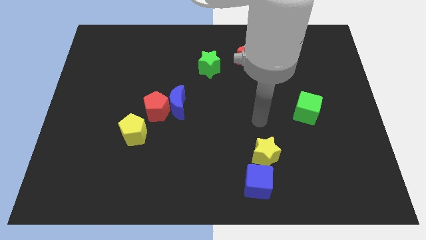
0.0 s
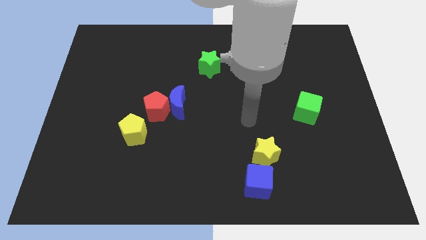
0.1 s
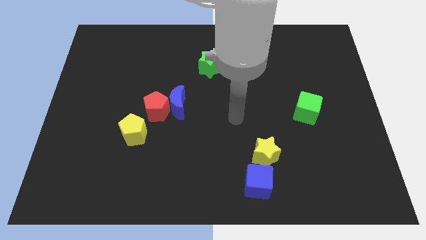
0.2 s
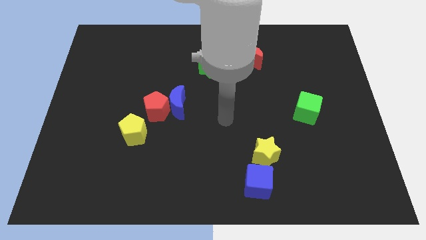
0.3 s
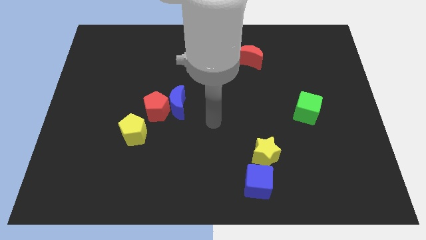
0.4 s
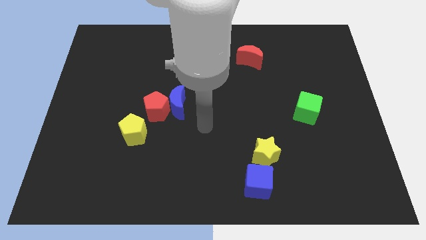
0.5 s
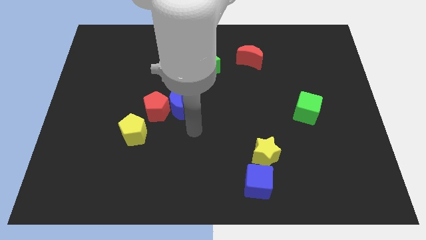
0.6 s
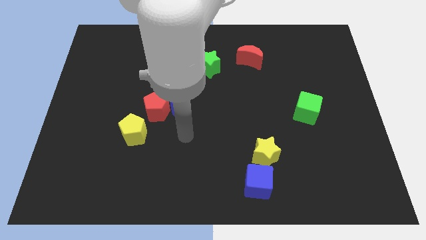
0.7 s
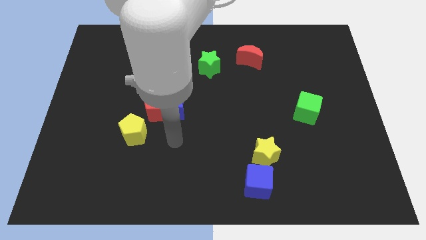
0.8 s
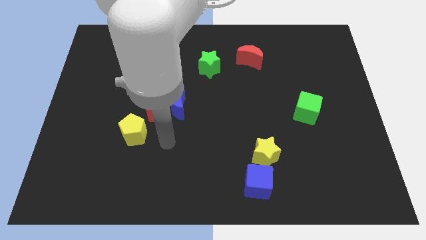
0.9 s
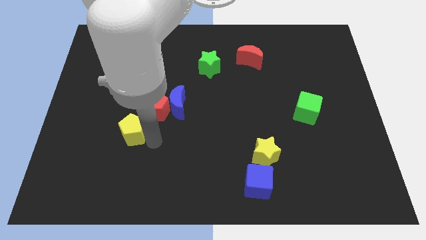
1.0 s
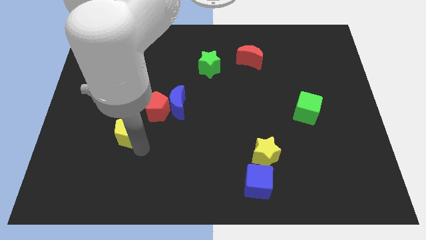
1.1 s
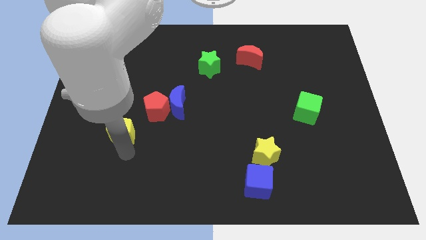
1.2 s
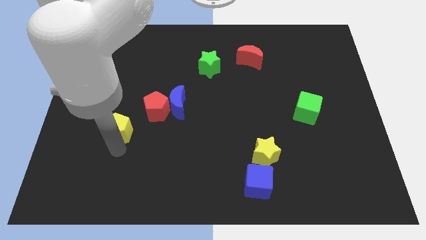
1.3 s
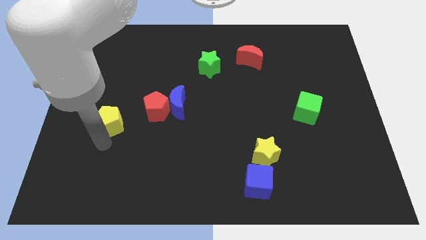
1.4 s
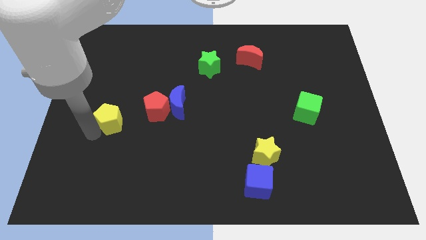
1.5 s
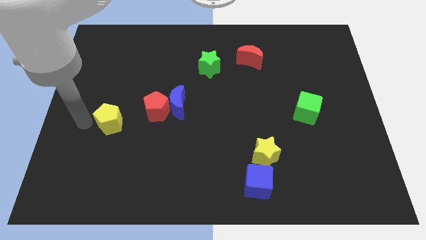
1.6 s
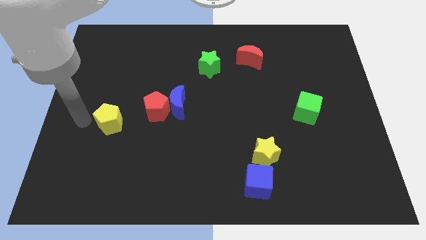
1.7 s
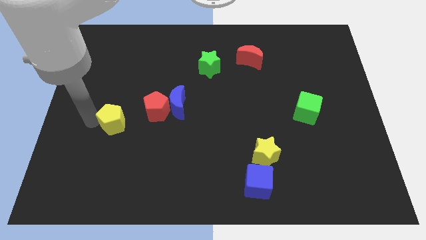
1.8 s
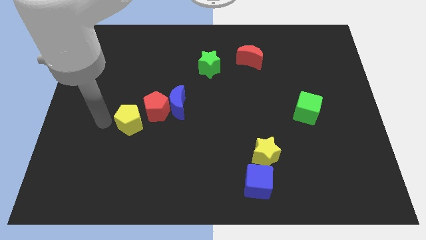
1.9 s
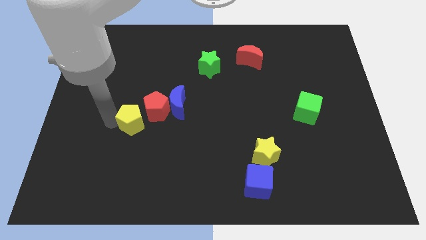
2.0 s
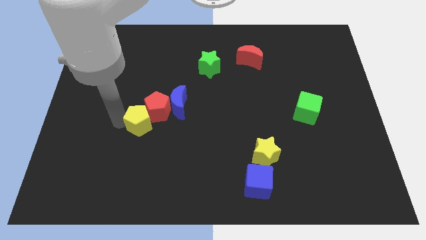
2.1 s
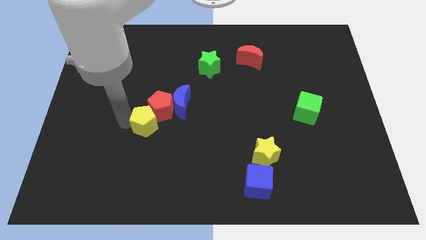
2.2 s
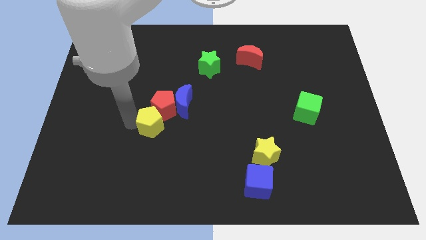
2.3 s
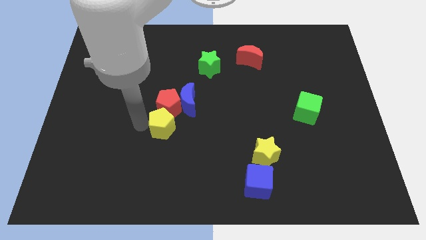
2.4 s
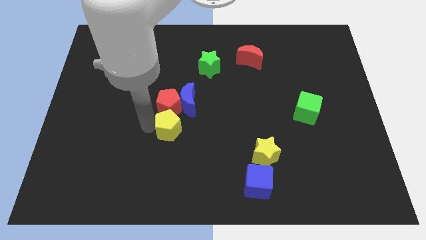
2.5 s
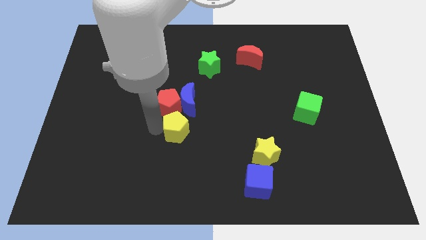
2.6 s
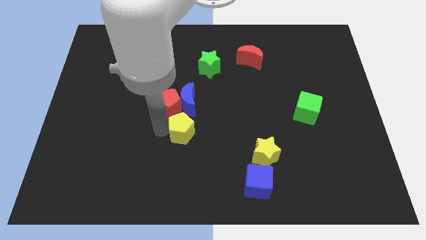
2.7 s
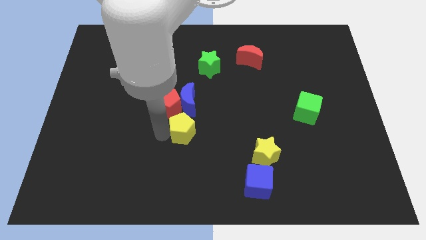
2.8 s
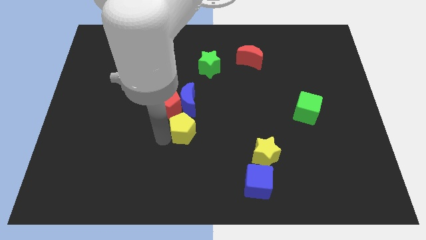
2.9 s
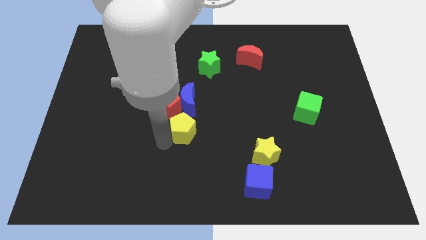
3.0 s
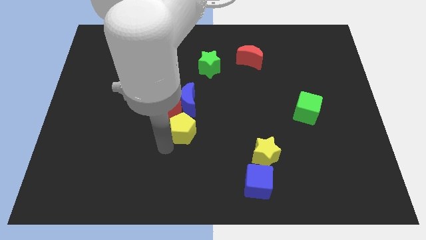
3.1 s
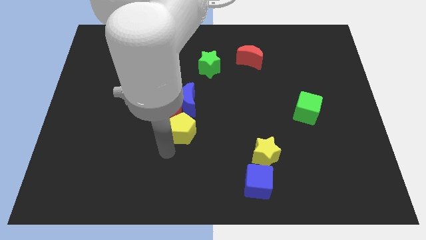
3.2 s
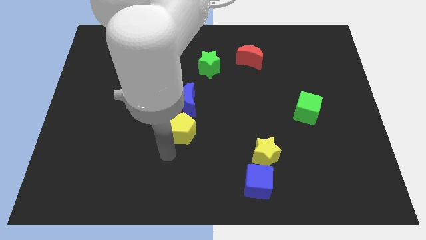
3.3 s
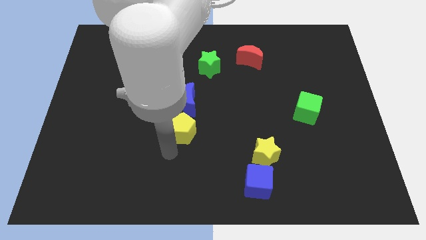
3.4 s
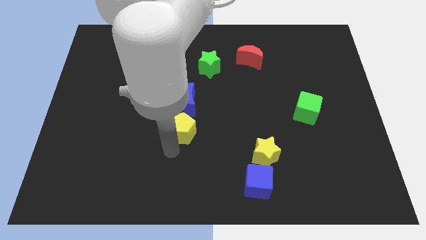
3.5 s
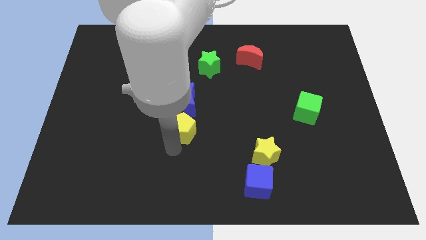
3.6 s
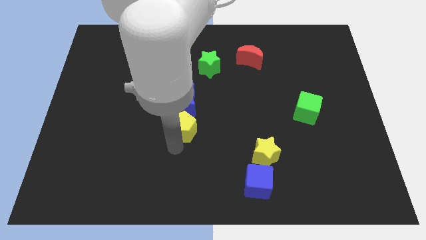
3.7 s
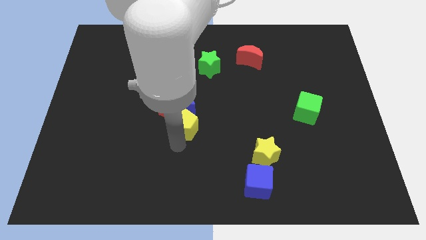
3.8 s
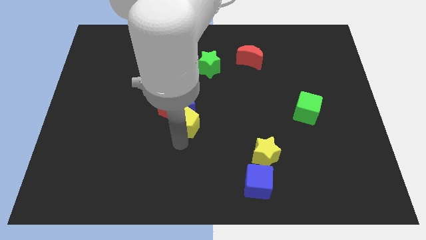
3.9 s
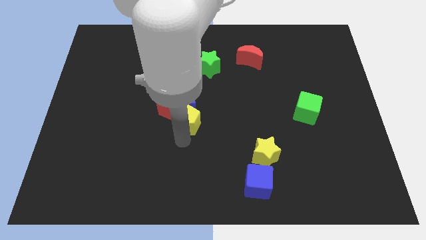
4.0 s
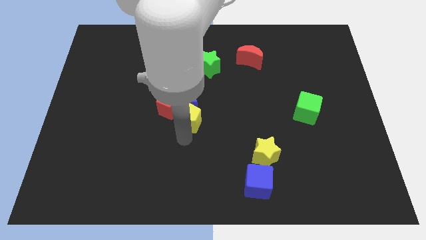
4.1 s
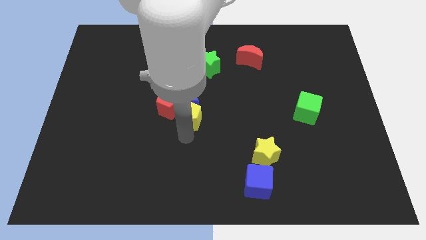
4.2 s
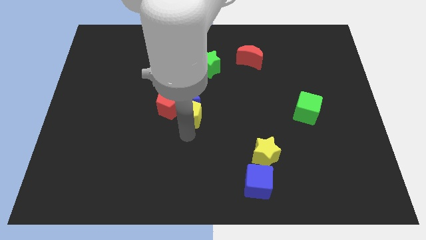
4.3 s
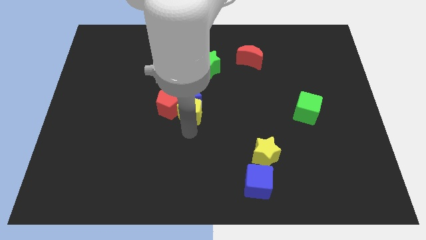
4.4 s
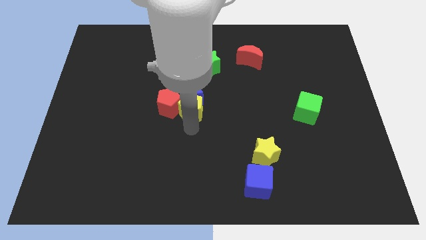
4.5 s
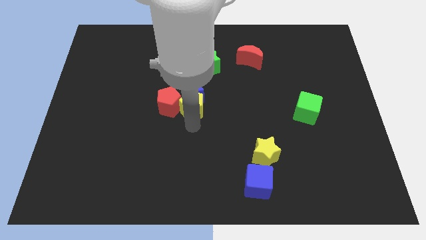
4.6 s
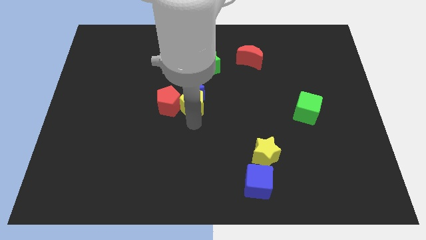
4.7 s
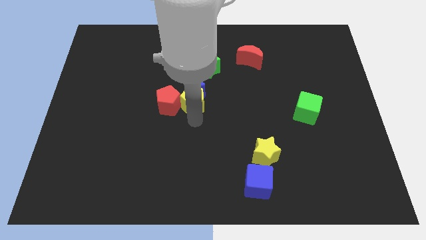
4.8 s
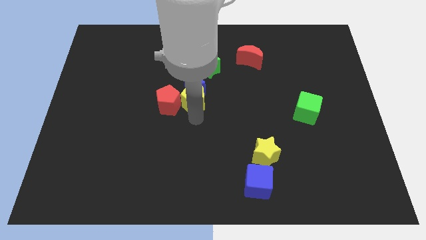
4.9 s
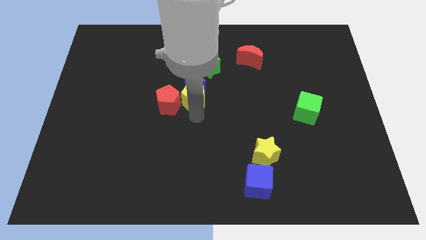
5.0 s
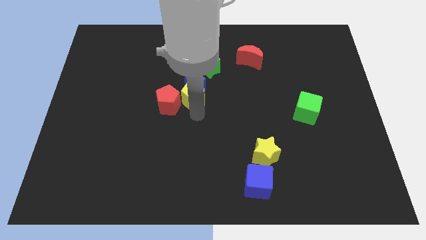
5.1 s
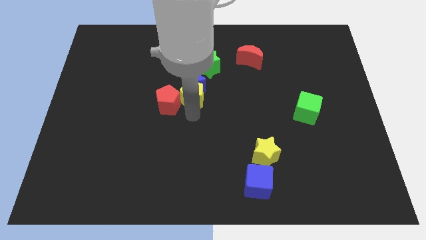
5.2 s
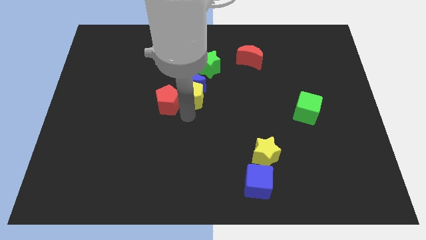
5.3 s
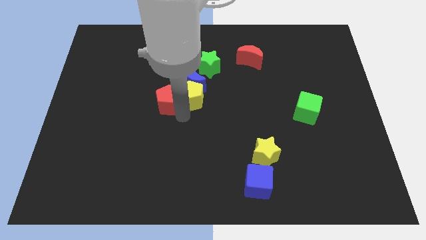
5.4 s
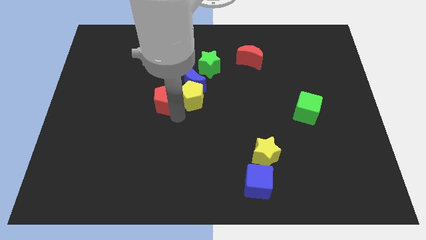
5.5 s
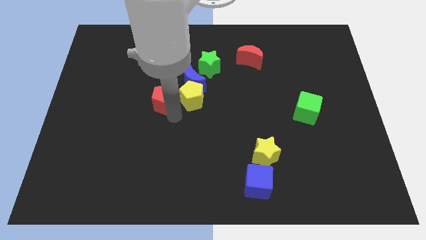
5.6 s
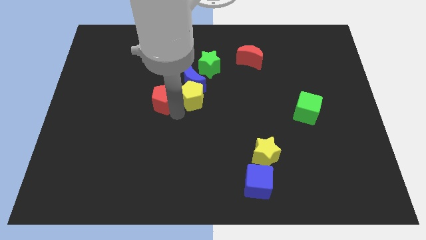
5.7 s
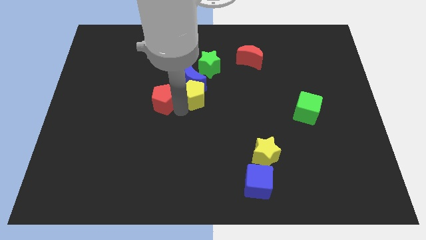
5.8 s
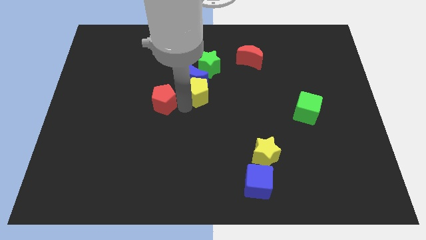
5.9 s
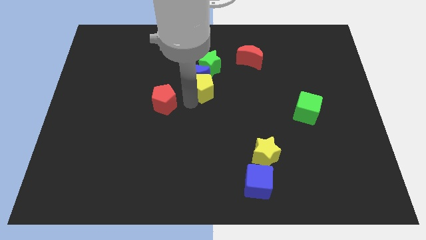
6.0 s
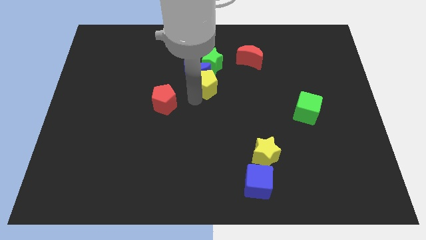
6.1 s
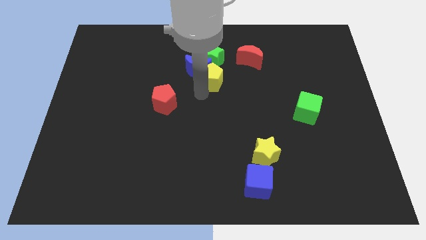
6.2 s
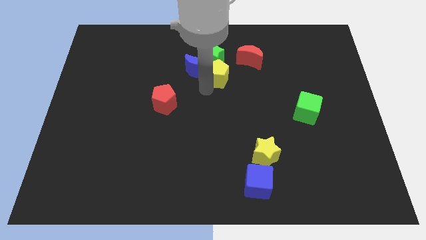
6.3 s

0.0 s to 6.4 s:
move the yellow pentagon to the green star

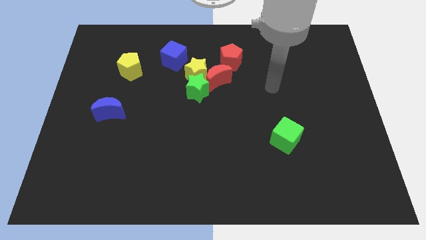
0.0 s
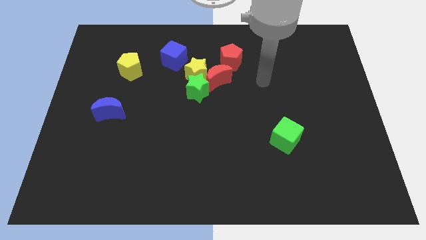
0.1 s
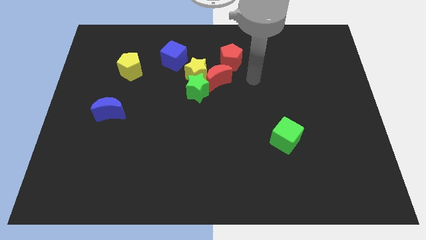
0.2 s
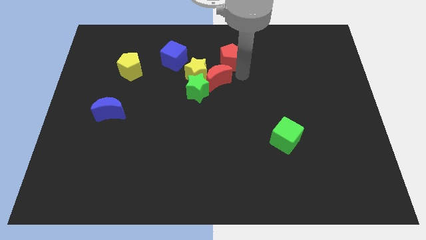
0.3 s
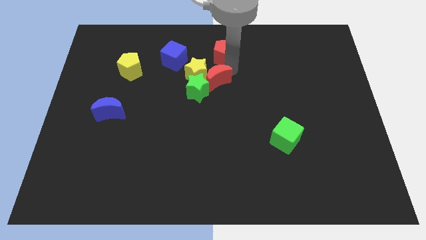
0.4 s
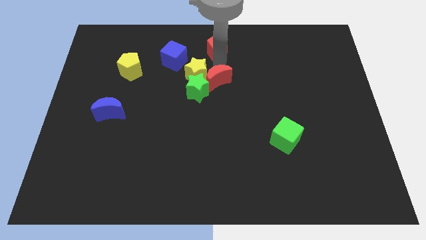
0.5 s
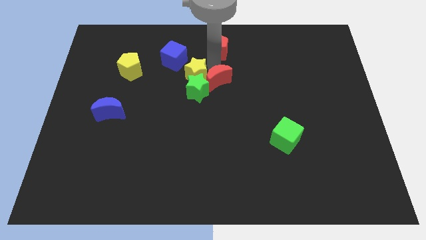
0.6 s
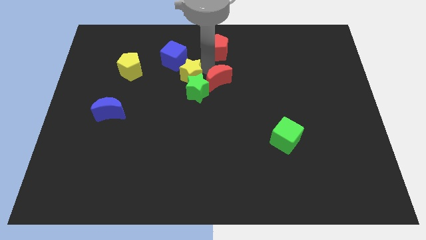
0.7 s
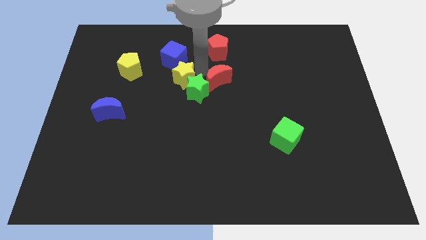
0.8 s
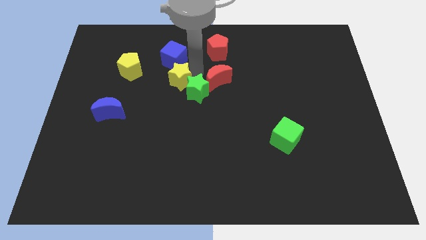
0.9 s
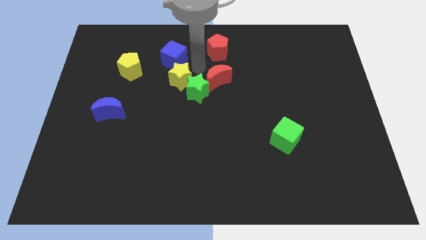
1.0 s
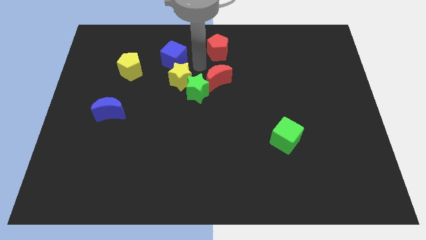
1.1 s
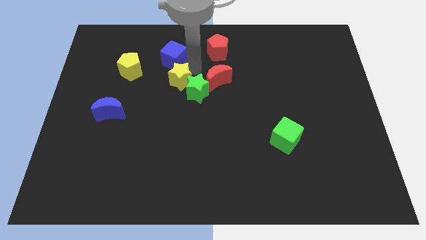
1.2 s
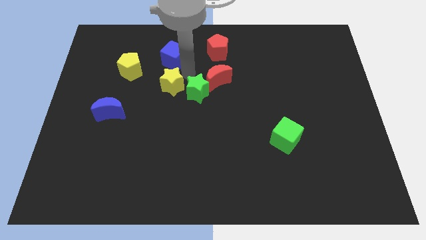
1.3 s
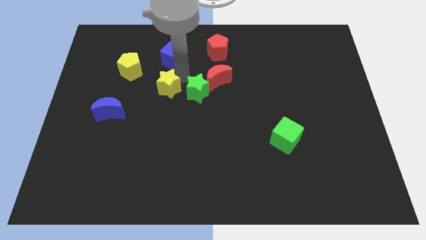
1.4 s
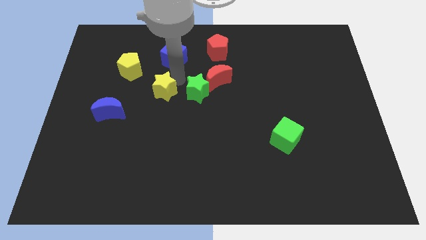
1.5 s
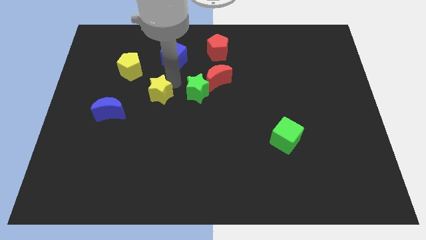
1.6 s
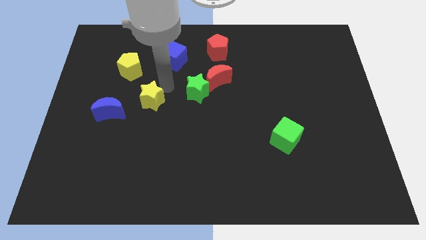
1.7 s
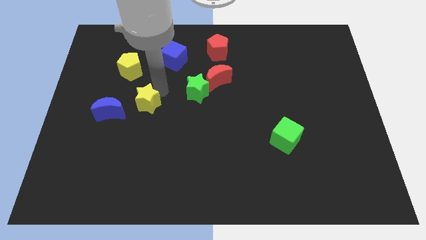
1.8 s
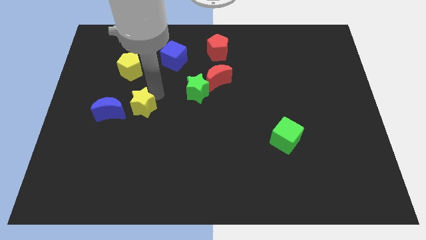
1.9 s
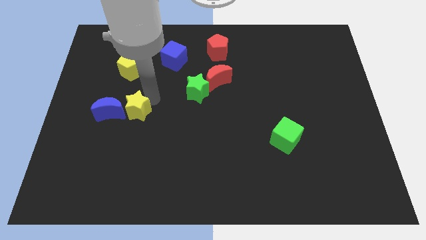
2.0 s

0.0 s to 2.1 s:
push the yellow star close to the blue moon
